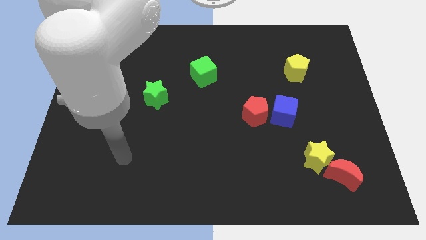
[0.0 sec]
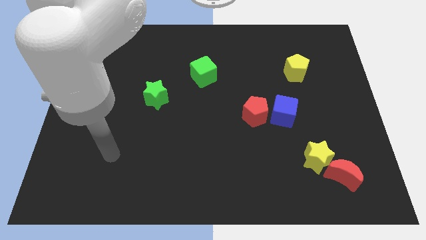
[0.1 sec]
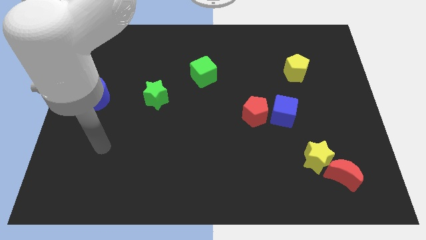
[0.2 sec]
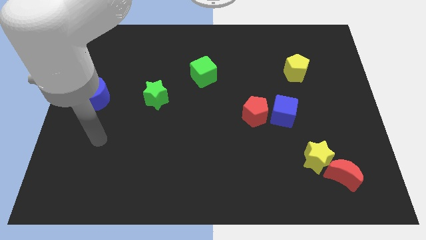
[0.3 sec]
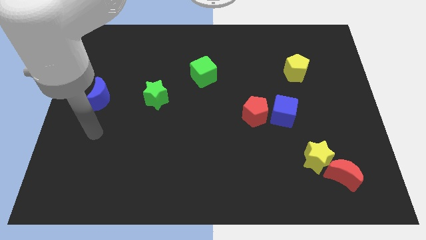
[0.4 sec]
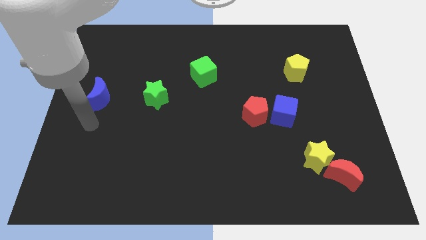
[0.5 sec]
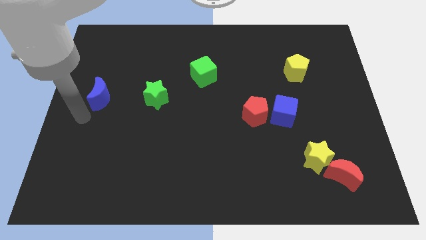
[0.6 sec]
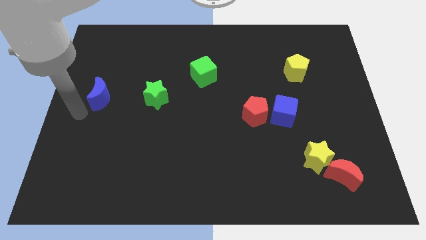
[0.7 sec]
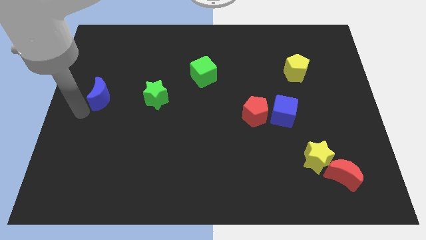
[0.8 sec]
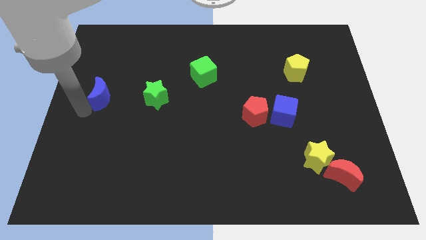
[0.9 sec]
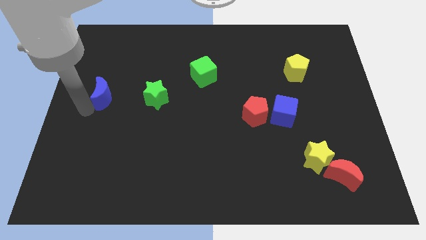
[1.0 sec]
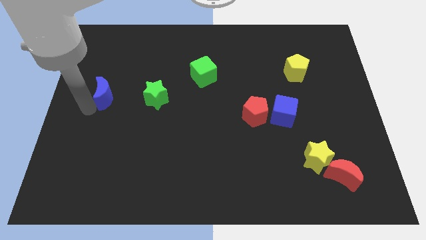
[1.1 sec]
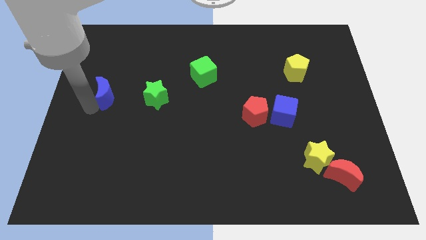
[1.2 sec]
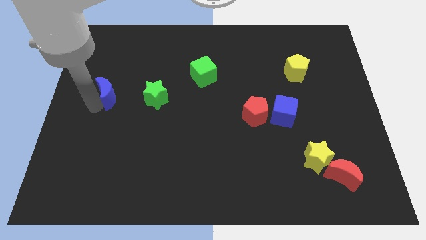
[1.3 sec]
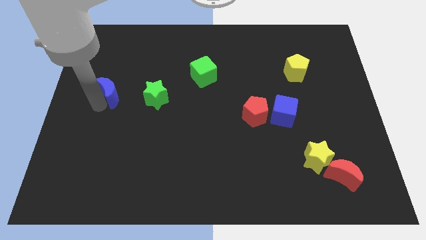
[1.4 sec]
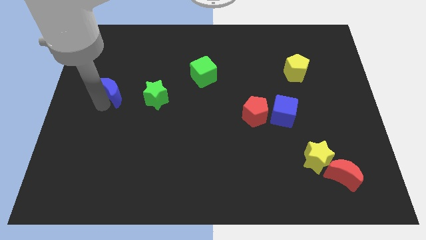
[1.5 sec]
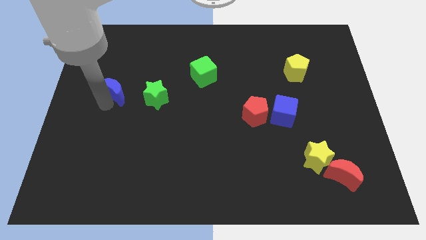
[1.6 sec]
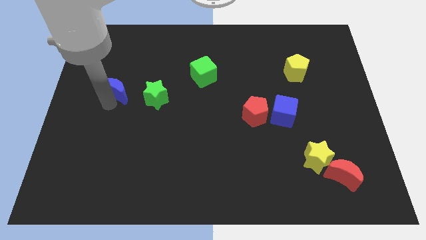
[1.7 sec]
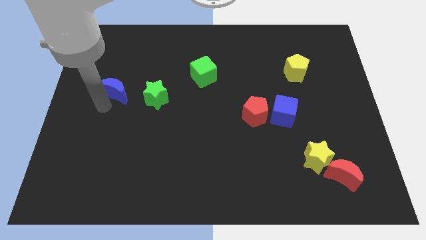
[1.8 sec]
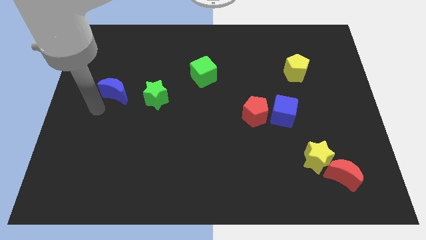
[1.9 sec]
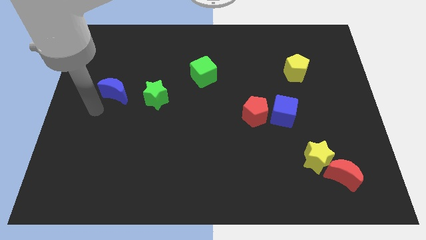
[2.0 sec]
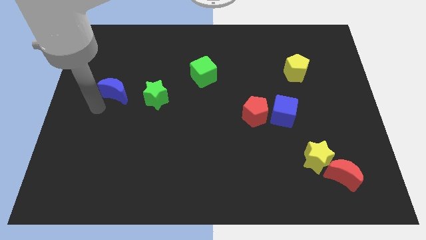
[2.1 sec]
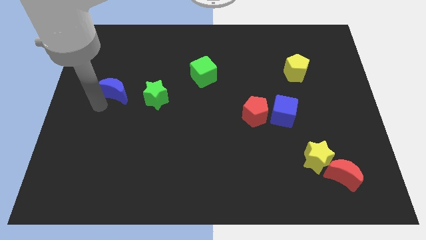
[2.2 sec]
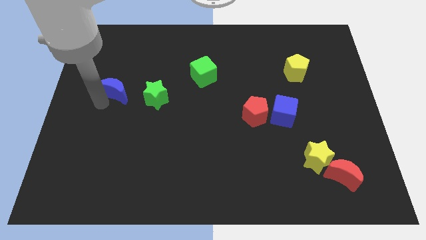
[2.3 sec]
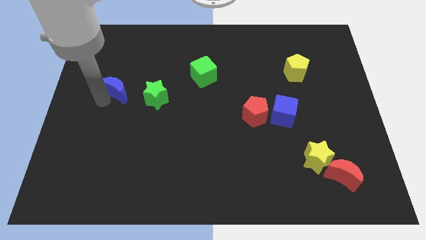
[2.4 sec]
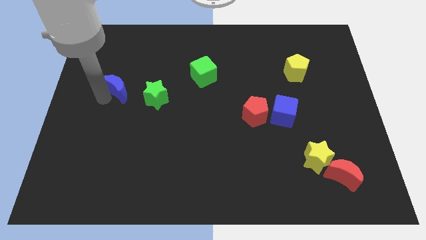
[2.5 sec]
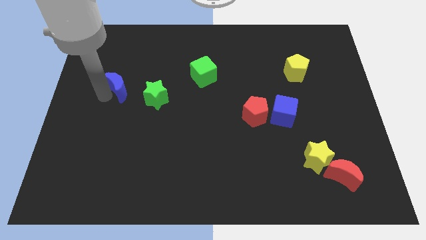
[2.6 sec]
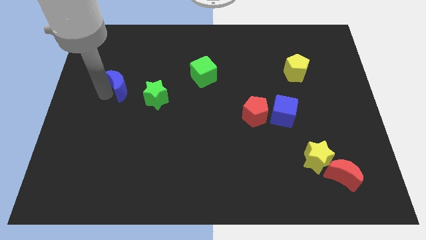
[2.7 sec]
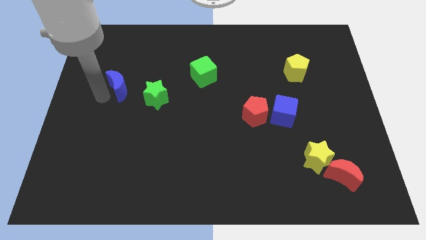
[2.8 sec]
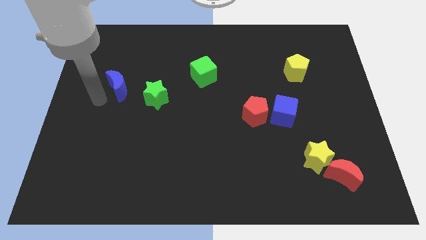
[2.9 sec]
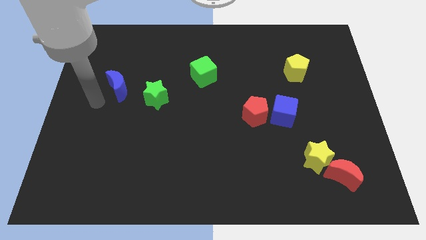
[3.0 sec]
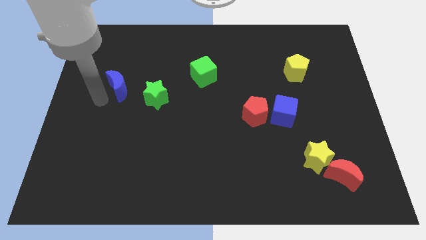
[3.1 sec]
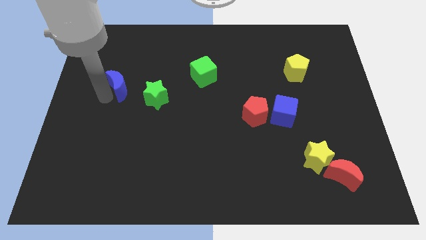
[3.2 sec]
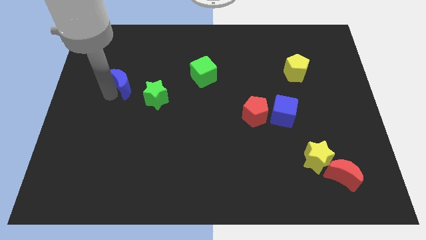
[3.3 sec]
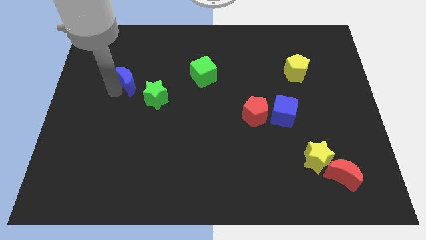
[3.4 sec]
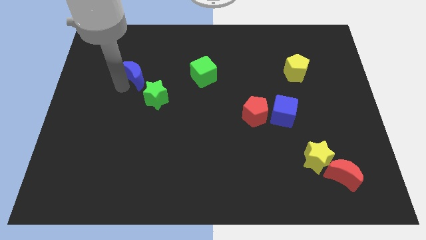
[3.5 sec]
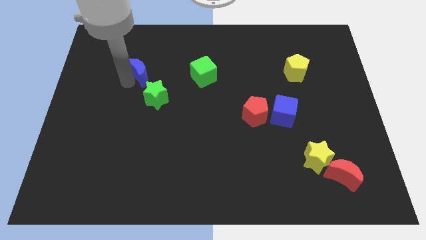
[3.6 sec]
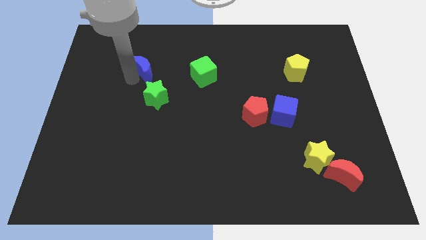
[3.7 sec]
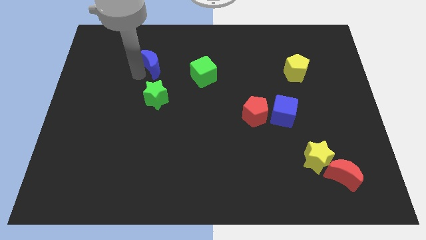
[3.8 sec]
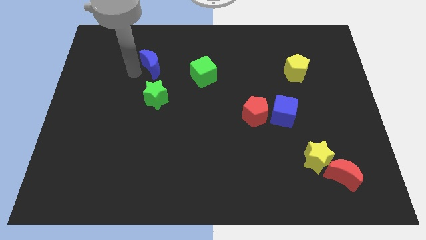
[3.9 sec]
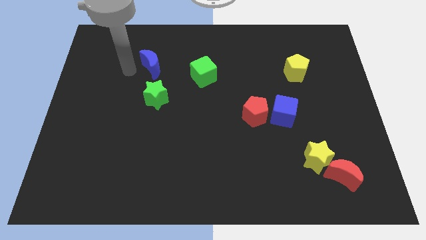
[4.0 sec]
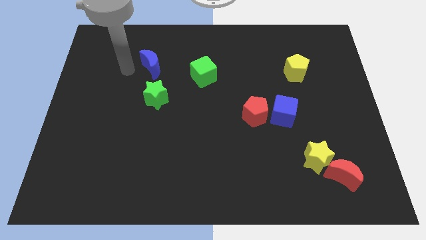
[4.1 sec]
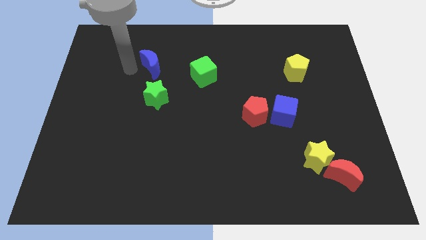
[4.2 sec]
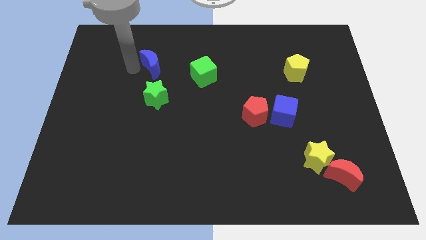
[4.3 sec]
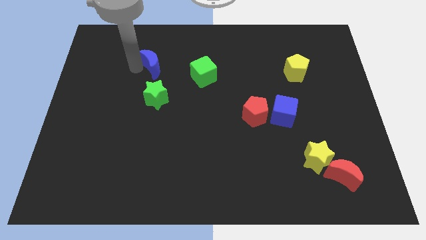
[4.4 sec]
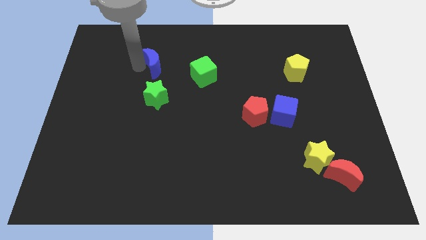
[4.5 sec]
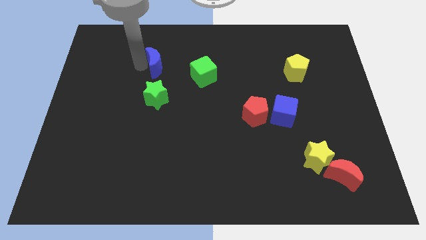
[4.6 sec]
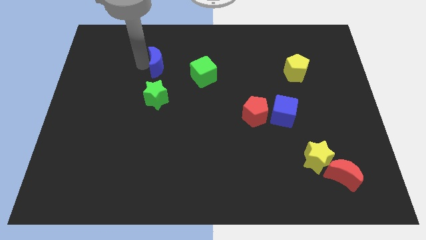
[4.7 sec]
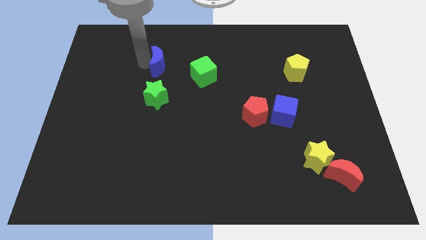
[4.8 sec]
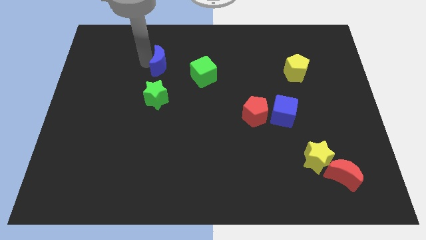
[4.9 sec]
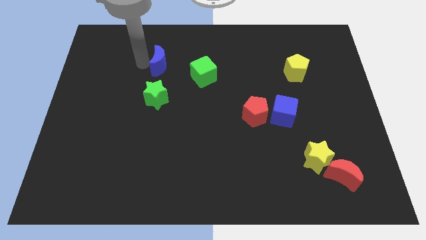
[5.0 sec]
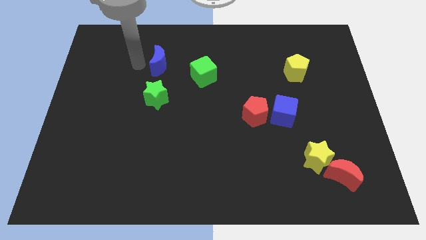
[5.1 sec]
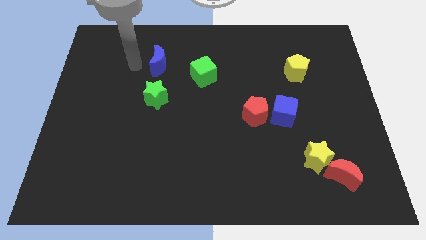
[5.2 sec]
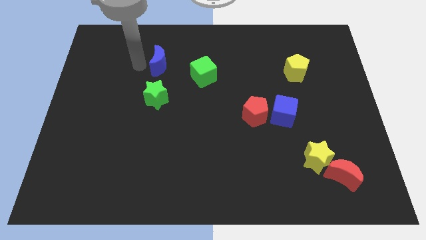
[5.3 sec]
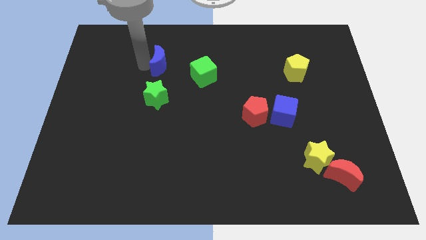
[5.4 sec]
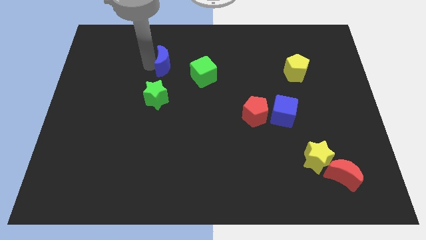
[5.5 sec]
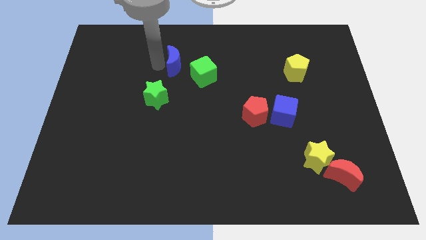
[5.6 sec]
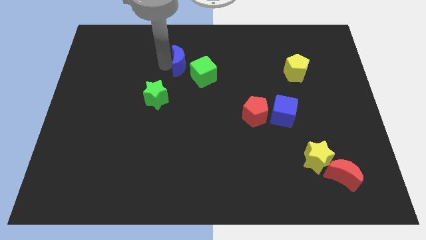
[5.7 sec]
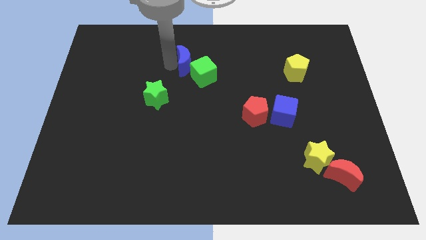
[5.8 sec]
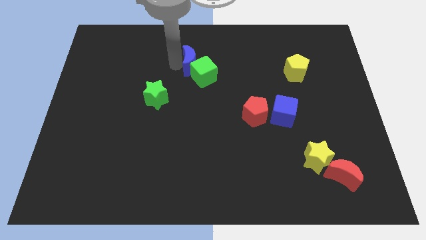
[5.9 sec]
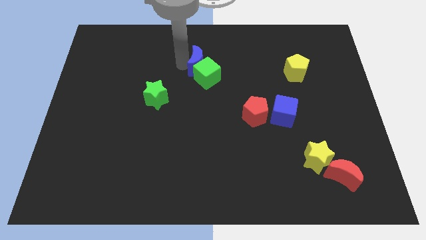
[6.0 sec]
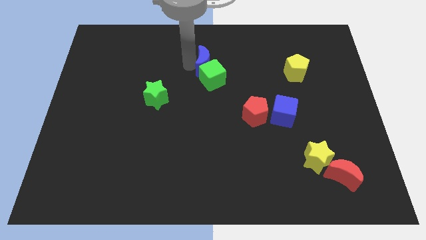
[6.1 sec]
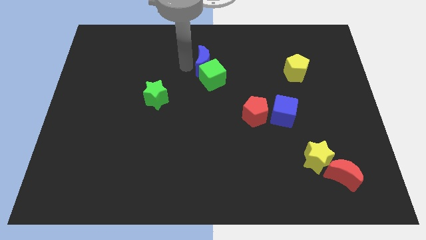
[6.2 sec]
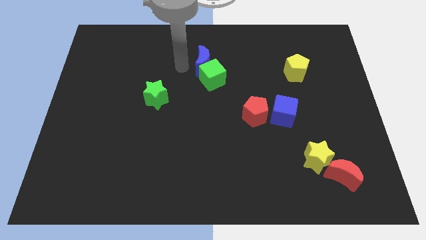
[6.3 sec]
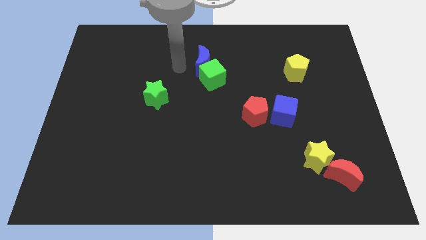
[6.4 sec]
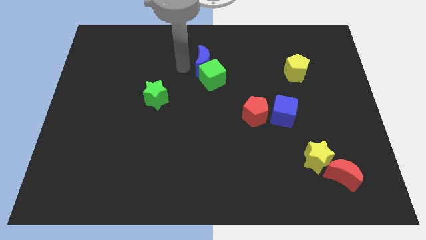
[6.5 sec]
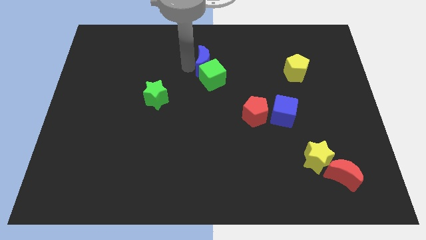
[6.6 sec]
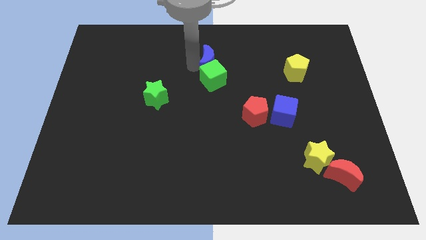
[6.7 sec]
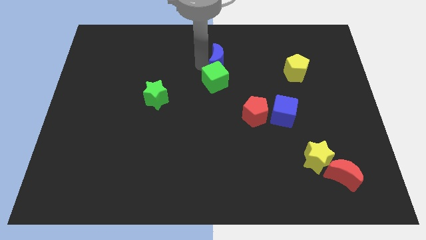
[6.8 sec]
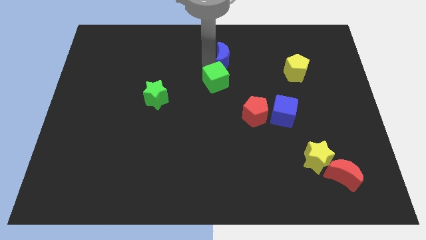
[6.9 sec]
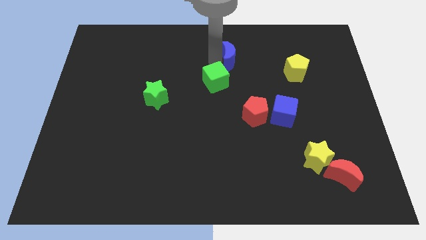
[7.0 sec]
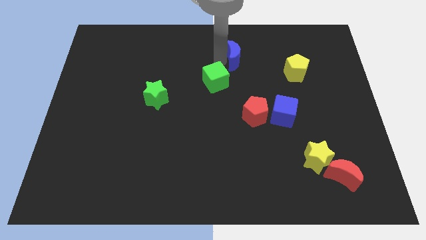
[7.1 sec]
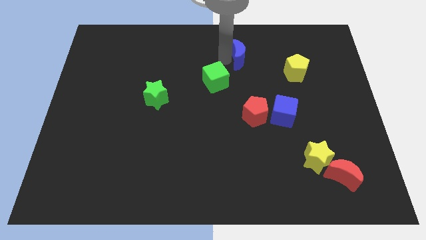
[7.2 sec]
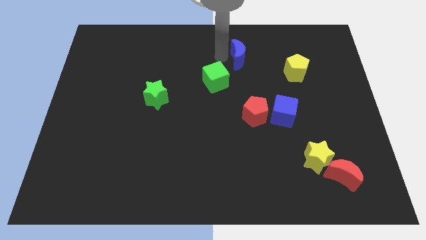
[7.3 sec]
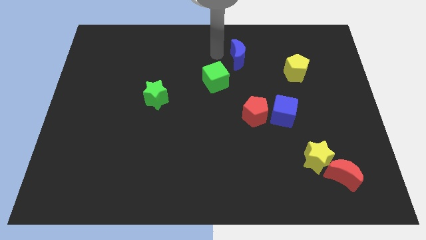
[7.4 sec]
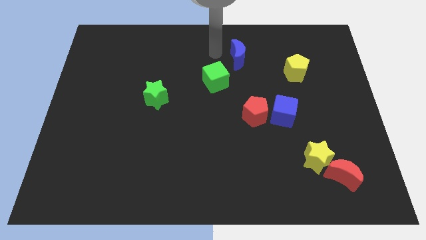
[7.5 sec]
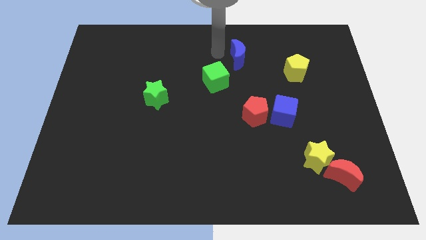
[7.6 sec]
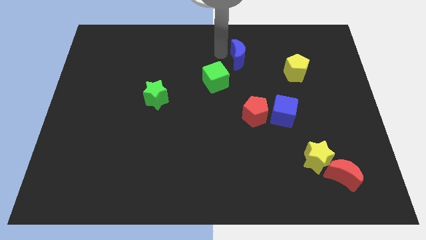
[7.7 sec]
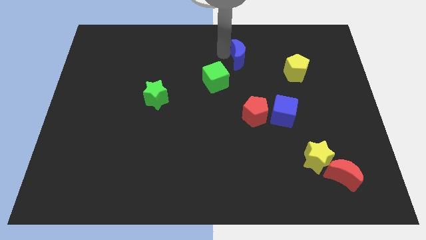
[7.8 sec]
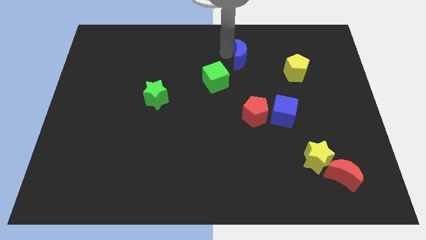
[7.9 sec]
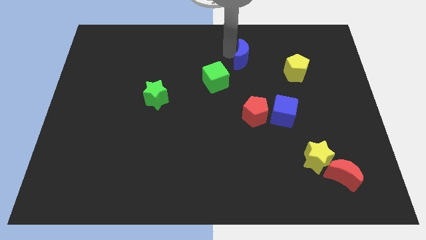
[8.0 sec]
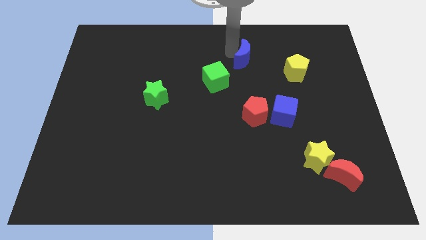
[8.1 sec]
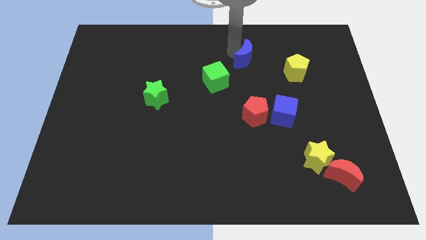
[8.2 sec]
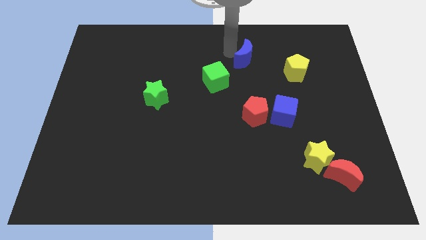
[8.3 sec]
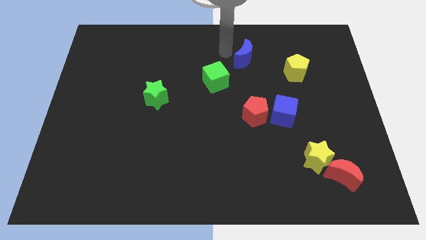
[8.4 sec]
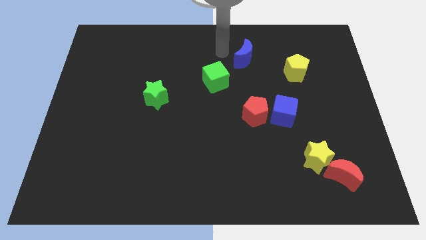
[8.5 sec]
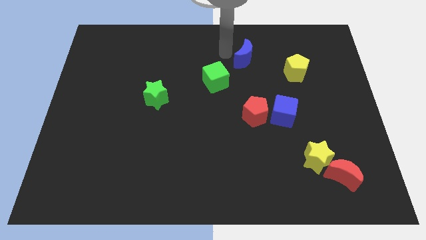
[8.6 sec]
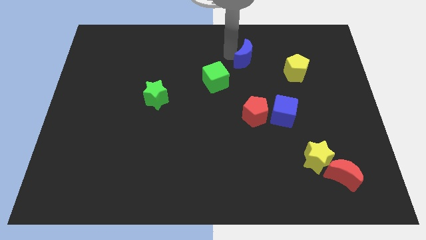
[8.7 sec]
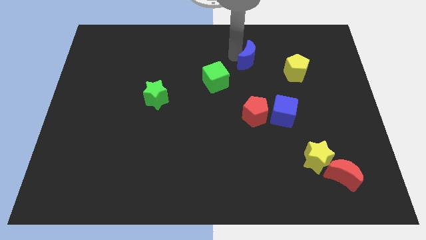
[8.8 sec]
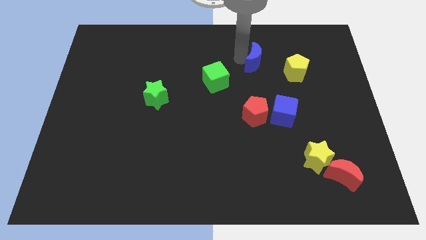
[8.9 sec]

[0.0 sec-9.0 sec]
slide the blue moon diagonally up and to the left of the yellow pentagon
